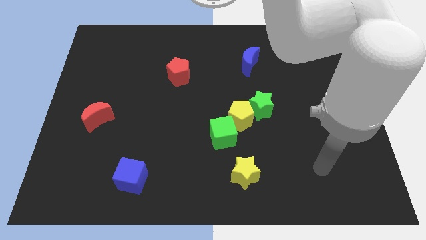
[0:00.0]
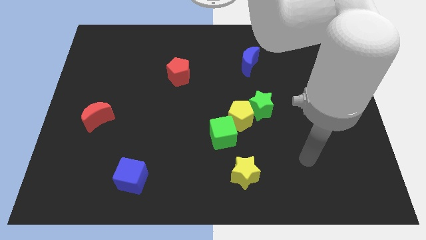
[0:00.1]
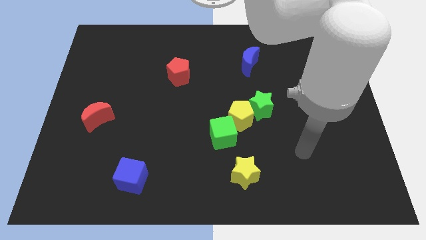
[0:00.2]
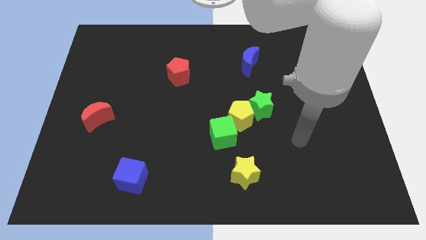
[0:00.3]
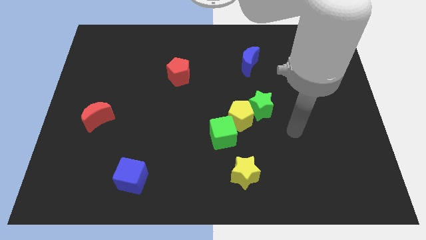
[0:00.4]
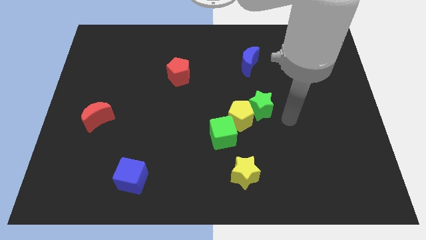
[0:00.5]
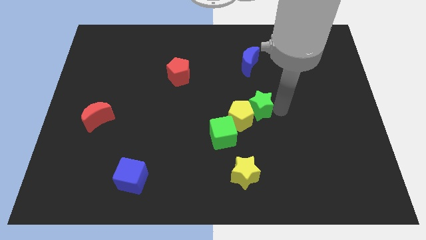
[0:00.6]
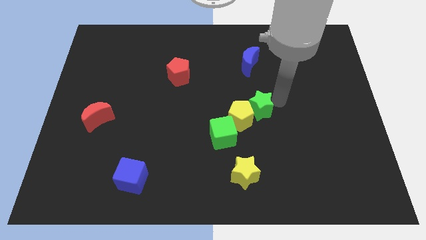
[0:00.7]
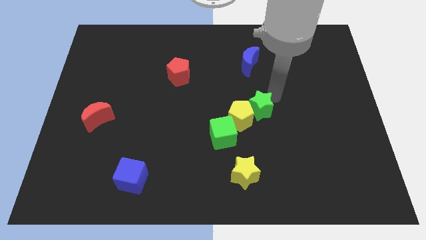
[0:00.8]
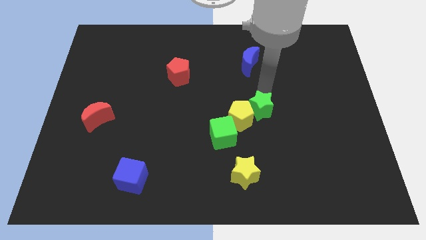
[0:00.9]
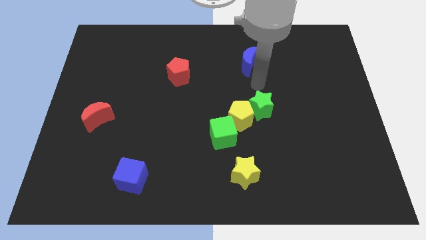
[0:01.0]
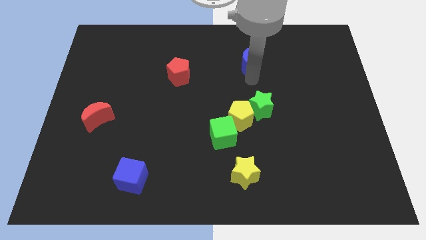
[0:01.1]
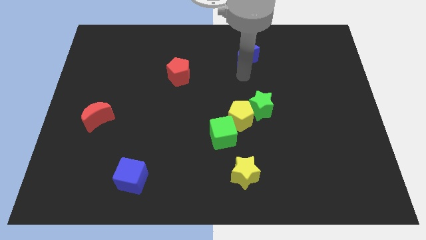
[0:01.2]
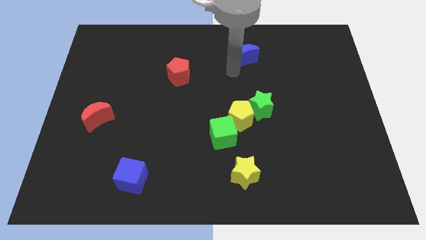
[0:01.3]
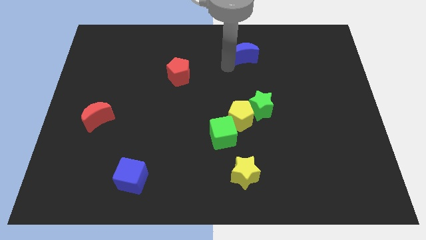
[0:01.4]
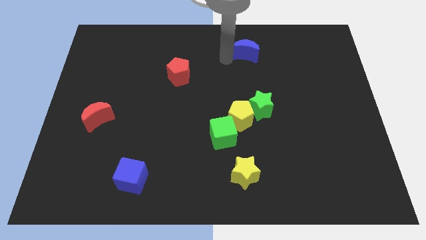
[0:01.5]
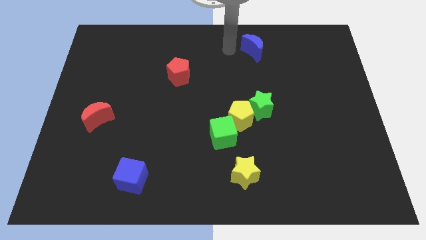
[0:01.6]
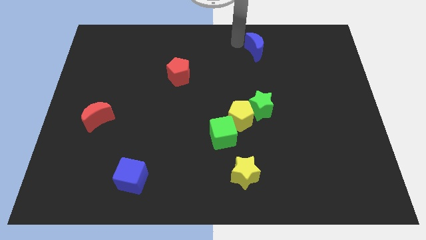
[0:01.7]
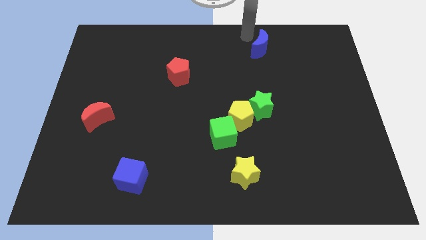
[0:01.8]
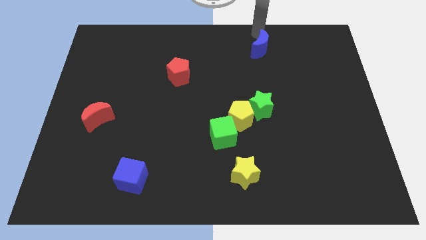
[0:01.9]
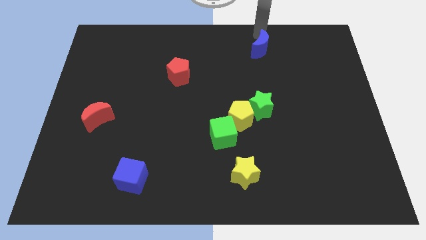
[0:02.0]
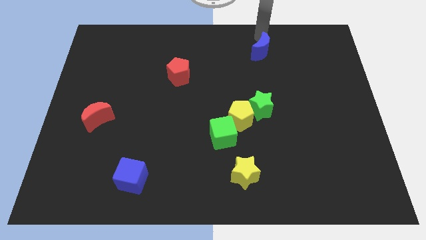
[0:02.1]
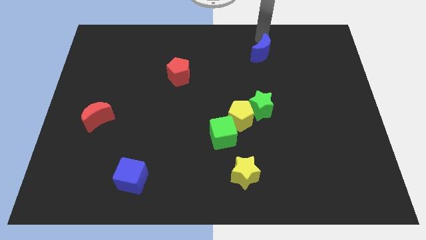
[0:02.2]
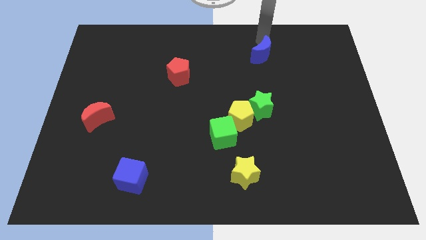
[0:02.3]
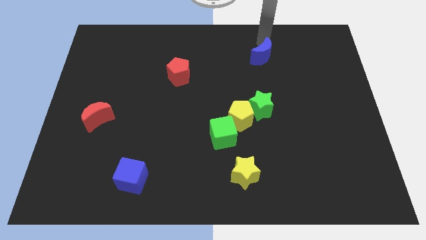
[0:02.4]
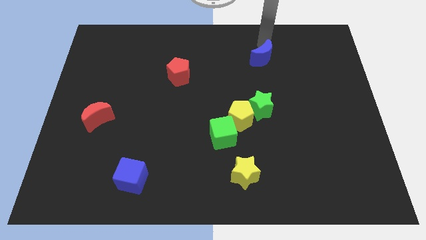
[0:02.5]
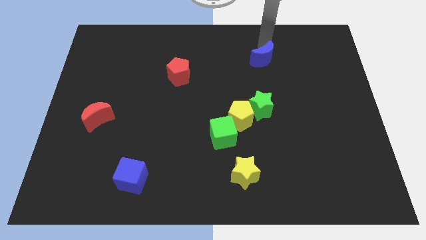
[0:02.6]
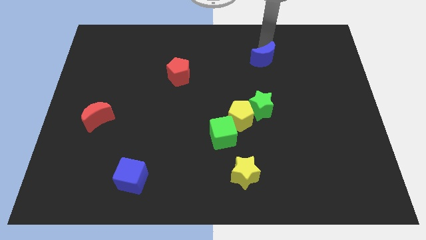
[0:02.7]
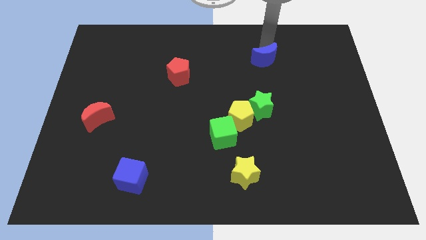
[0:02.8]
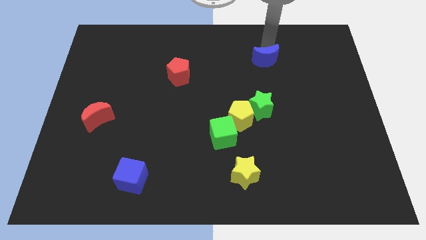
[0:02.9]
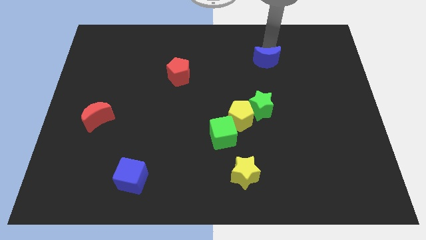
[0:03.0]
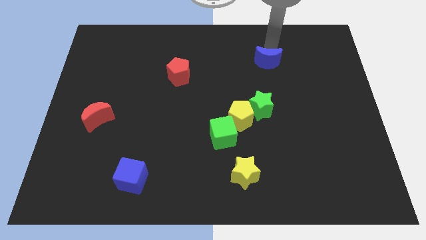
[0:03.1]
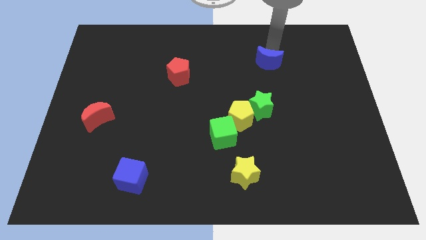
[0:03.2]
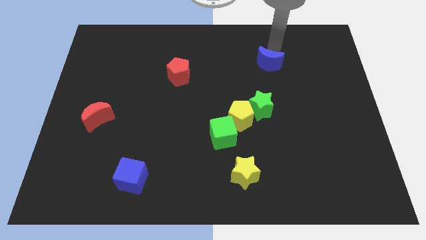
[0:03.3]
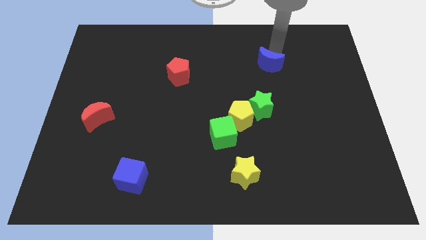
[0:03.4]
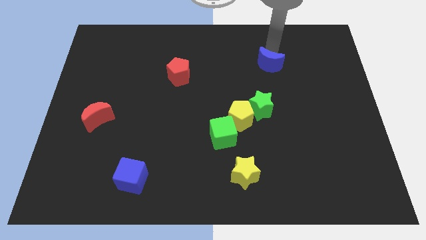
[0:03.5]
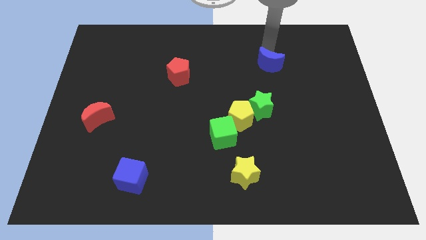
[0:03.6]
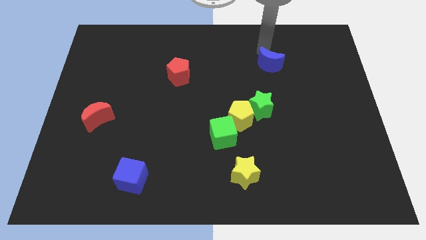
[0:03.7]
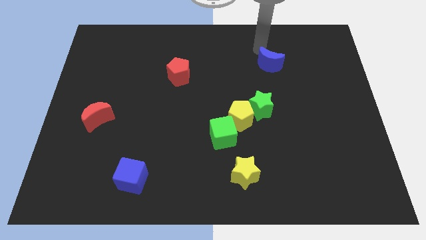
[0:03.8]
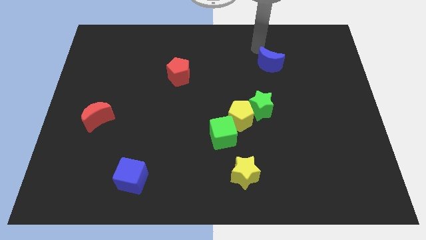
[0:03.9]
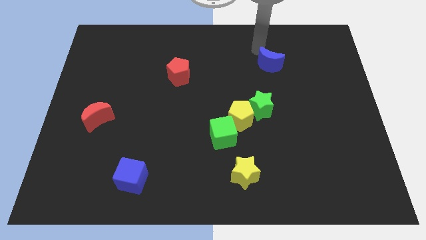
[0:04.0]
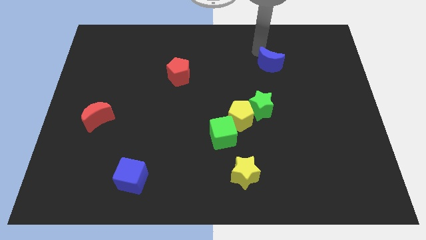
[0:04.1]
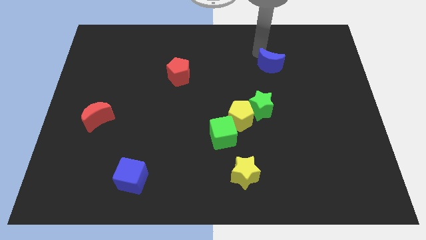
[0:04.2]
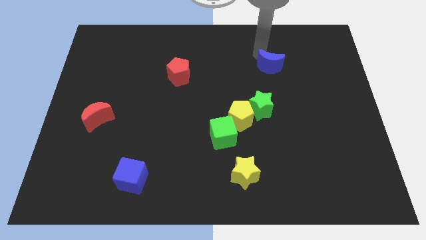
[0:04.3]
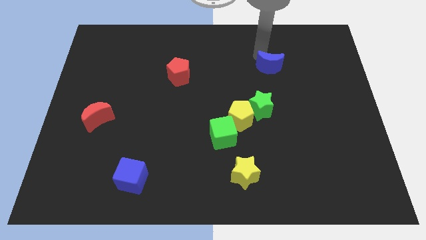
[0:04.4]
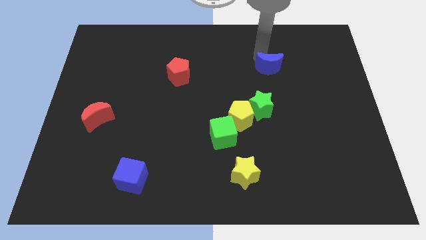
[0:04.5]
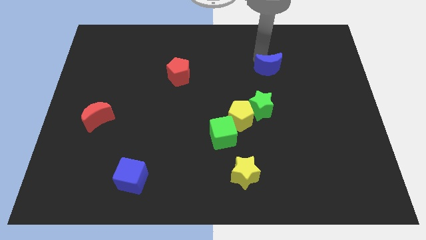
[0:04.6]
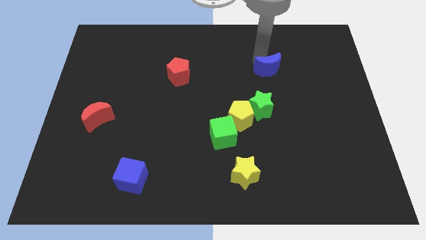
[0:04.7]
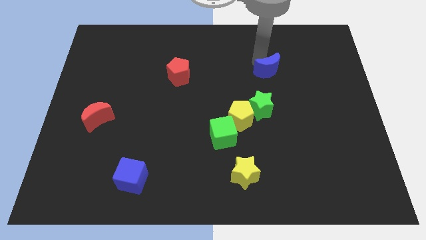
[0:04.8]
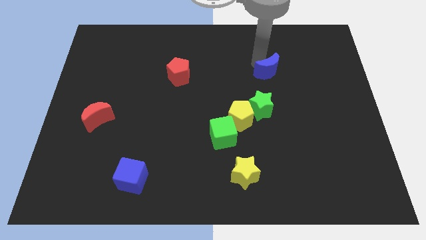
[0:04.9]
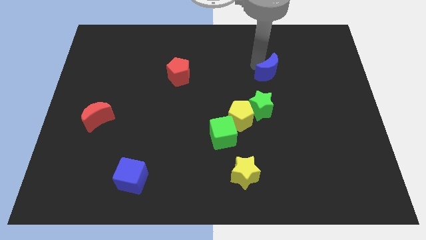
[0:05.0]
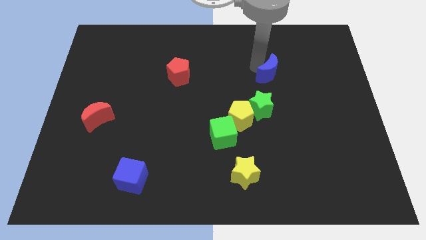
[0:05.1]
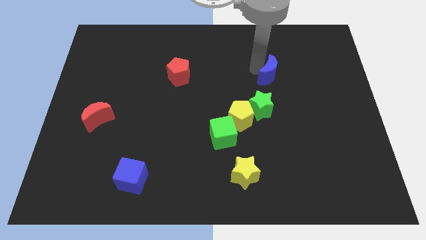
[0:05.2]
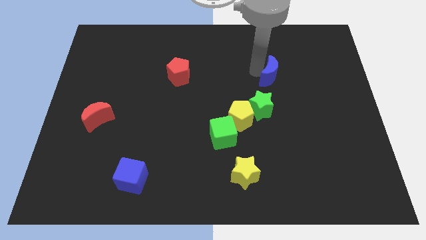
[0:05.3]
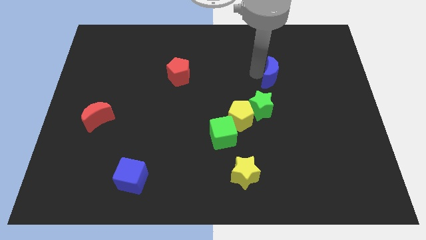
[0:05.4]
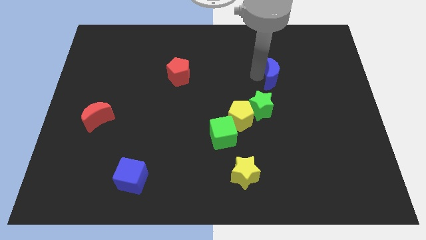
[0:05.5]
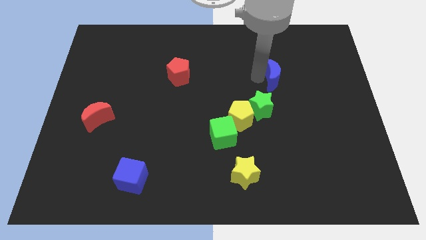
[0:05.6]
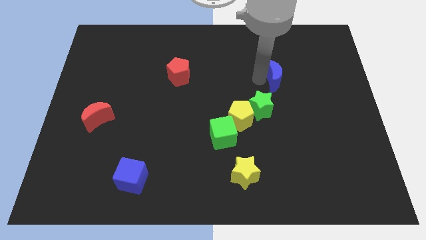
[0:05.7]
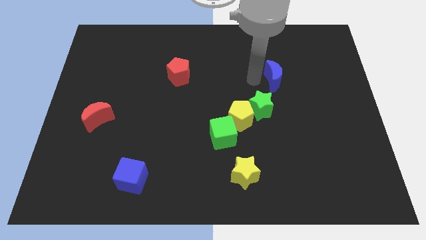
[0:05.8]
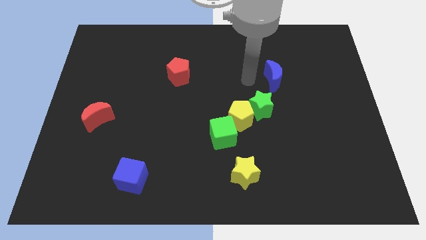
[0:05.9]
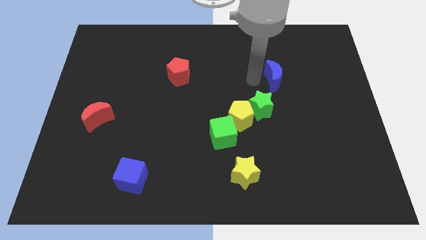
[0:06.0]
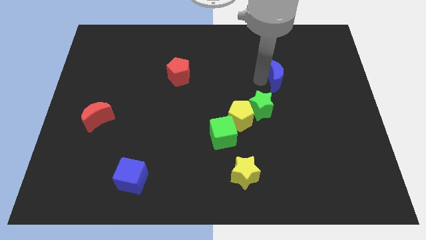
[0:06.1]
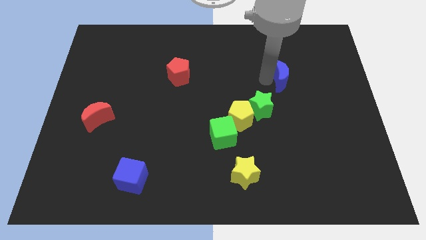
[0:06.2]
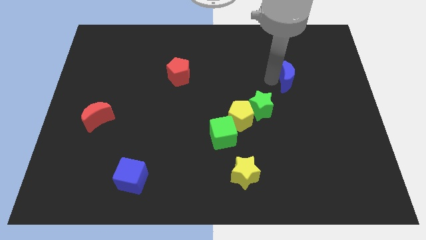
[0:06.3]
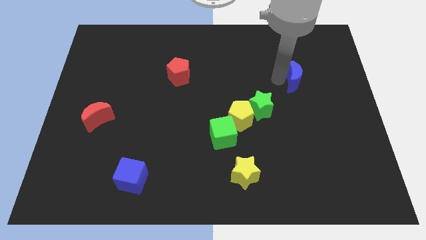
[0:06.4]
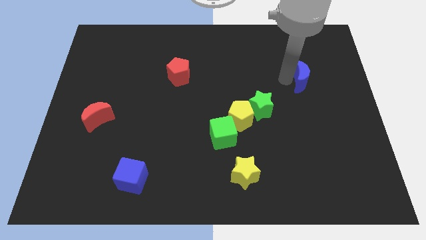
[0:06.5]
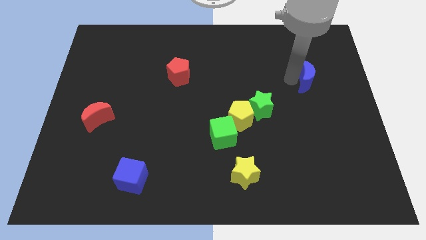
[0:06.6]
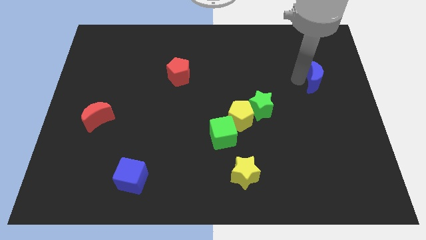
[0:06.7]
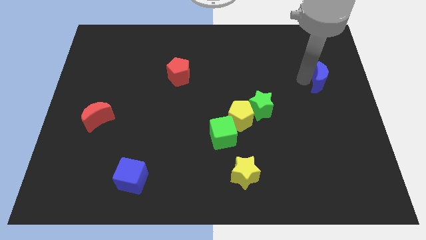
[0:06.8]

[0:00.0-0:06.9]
push the blue moon to the center right

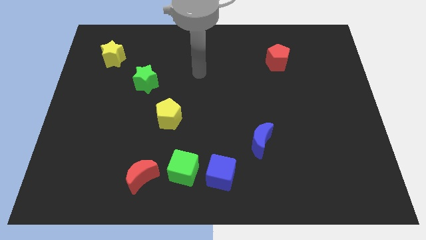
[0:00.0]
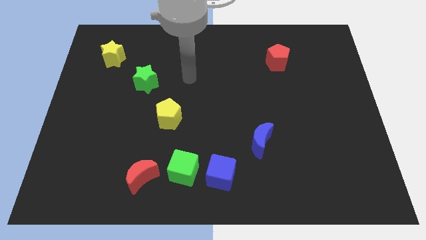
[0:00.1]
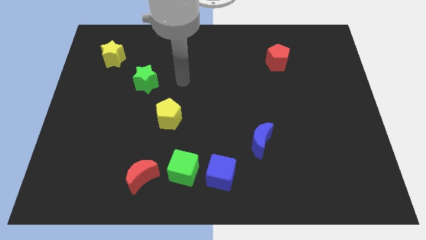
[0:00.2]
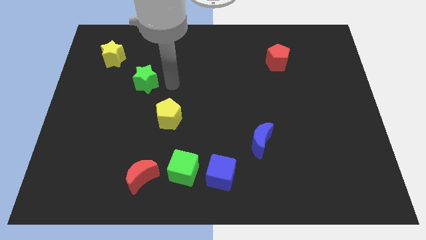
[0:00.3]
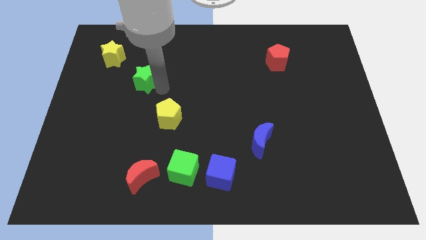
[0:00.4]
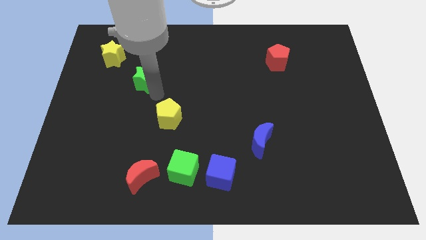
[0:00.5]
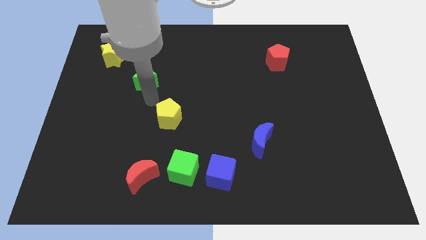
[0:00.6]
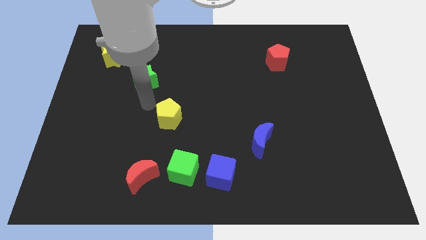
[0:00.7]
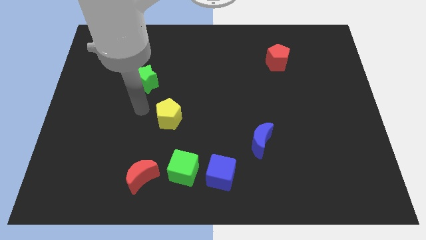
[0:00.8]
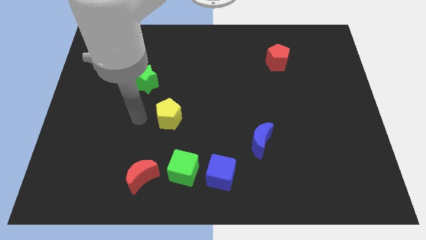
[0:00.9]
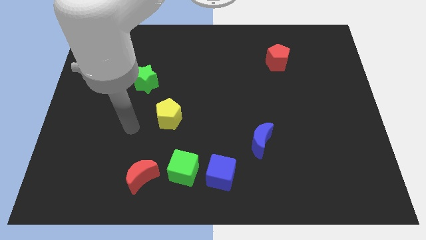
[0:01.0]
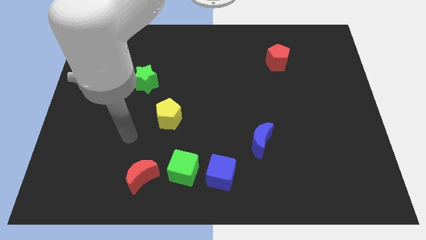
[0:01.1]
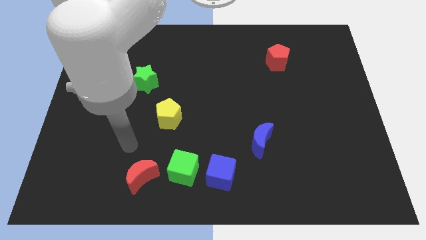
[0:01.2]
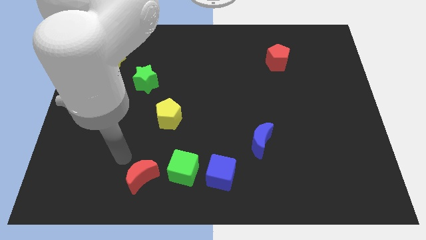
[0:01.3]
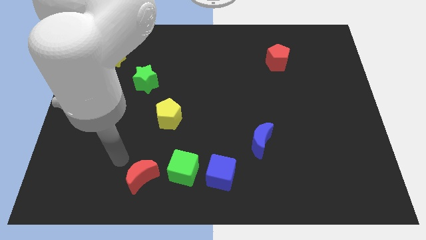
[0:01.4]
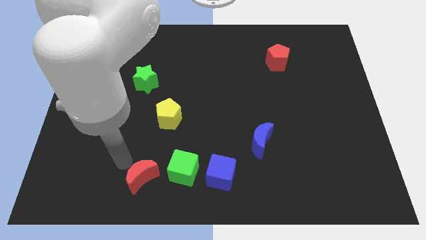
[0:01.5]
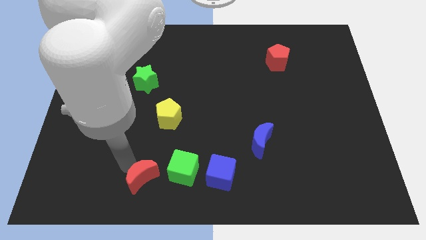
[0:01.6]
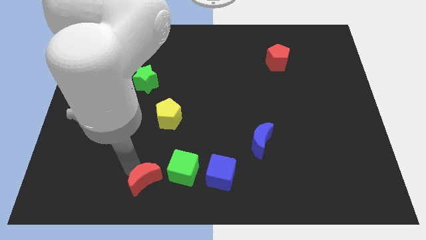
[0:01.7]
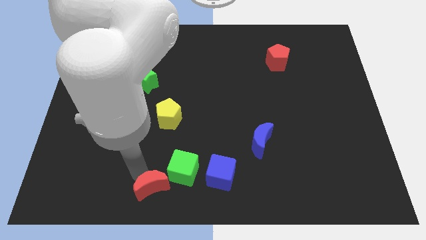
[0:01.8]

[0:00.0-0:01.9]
push the red moon to the bottom
